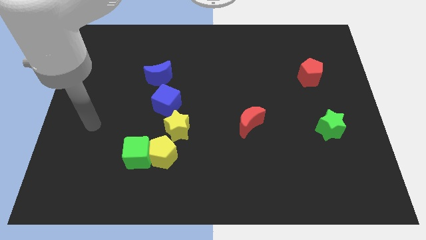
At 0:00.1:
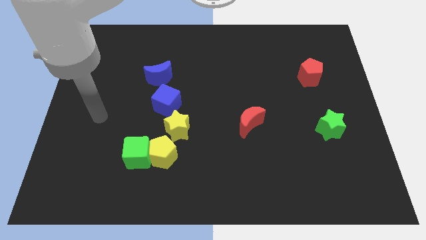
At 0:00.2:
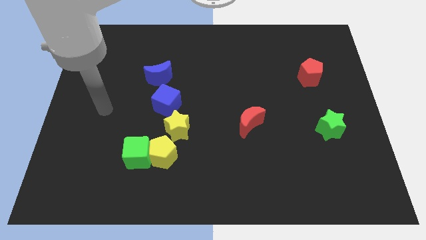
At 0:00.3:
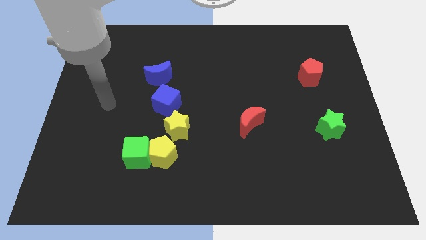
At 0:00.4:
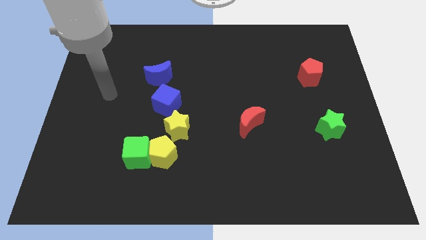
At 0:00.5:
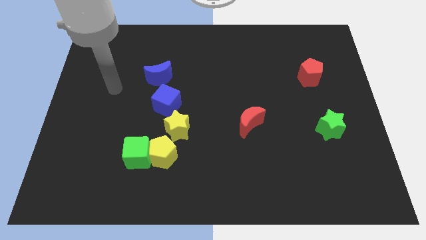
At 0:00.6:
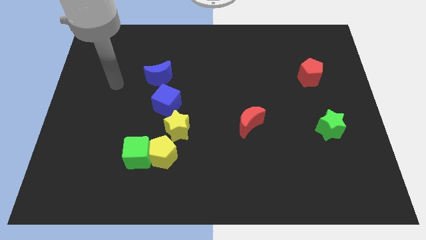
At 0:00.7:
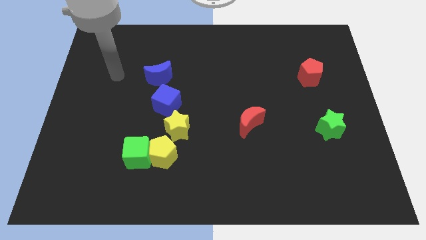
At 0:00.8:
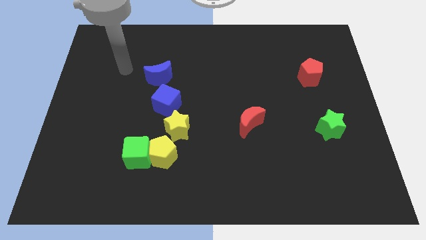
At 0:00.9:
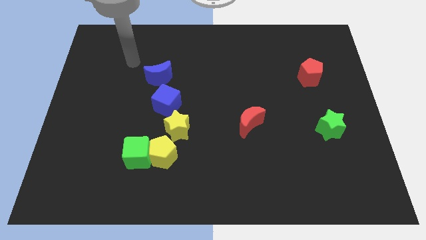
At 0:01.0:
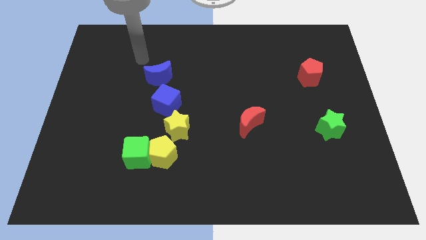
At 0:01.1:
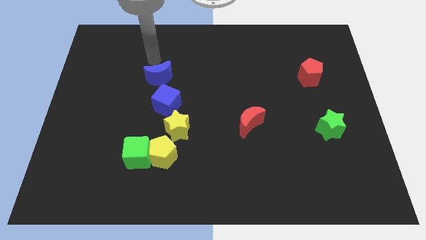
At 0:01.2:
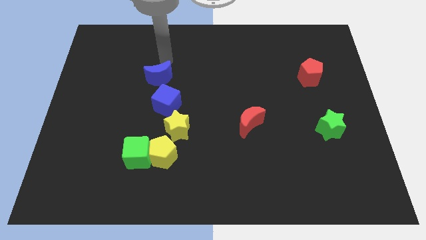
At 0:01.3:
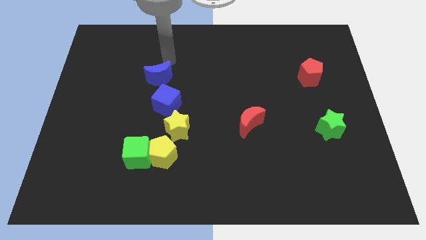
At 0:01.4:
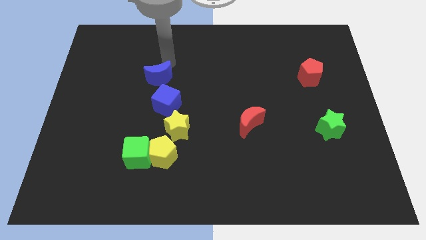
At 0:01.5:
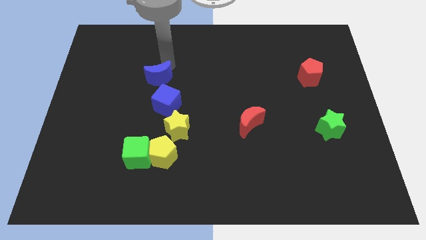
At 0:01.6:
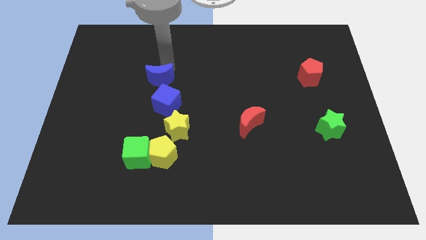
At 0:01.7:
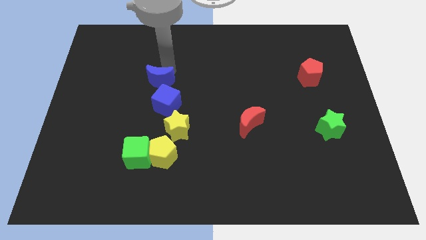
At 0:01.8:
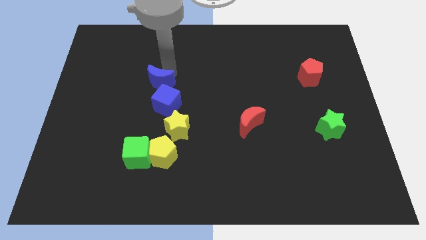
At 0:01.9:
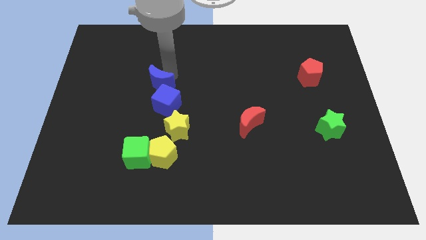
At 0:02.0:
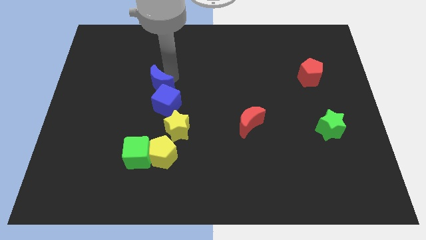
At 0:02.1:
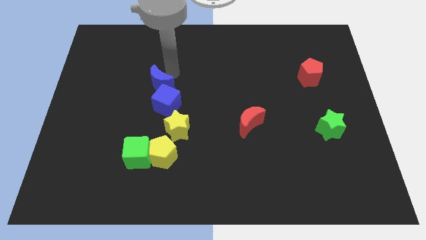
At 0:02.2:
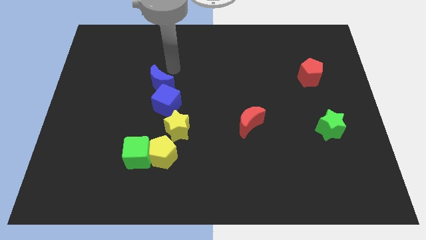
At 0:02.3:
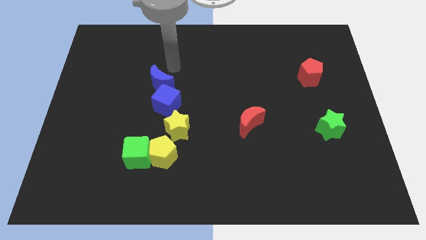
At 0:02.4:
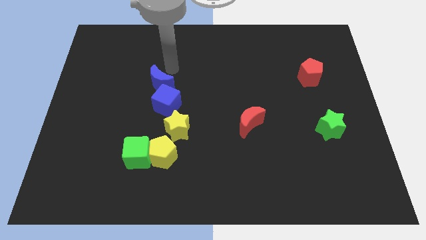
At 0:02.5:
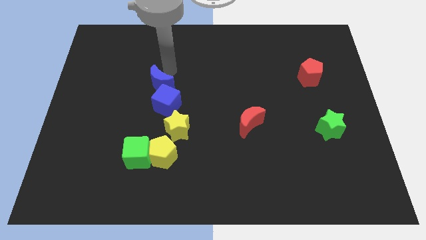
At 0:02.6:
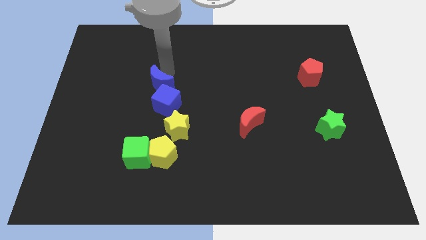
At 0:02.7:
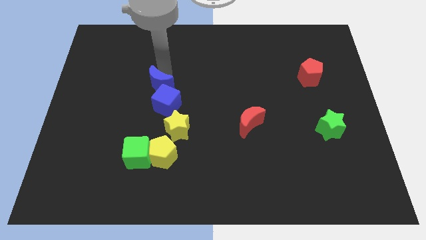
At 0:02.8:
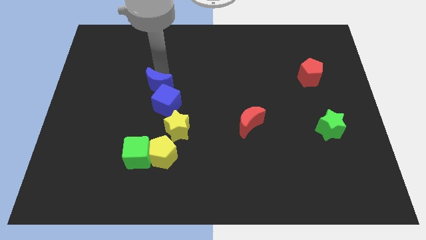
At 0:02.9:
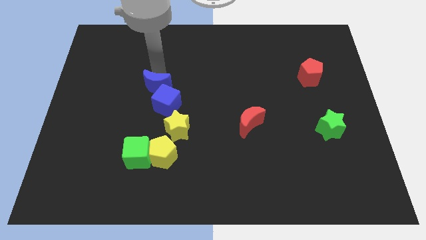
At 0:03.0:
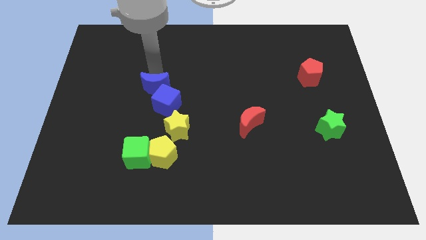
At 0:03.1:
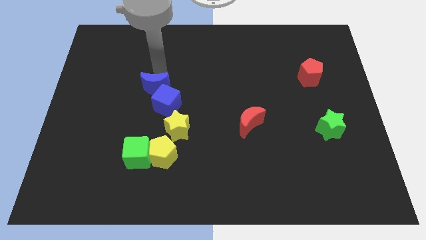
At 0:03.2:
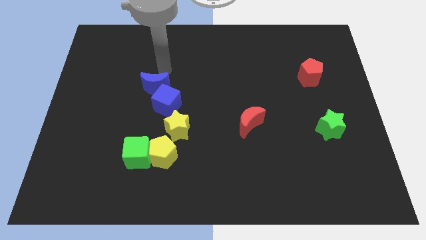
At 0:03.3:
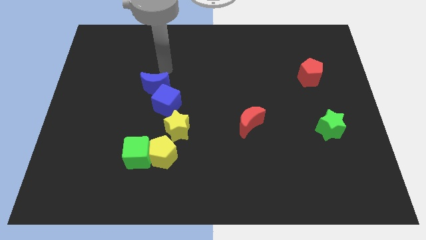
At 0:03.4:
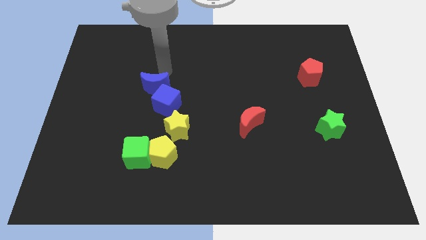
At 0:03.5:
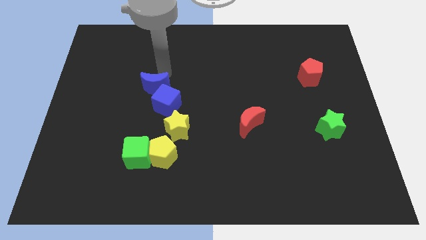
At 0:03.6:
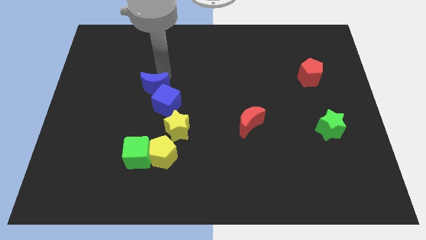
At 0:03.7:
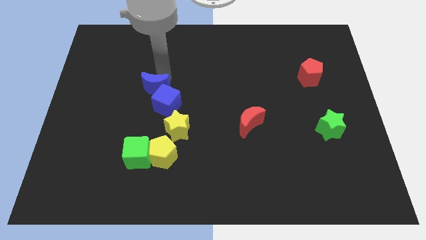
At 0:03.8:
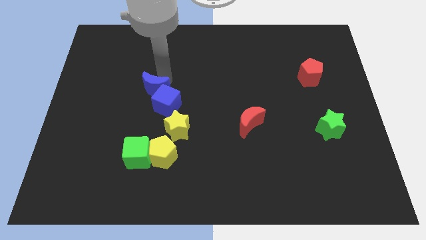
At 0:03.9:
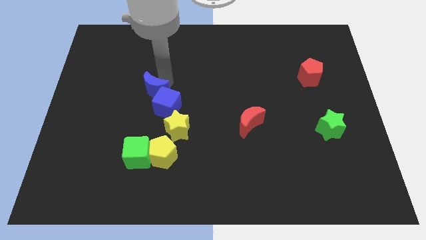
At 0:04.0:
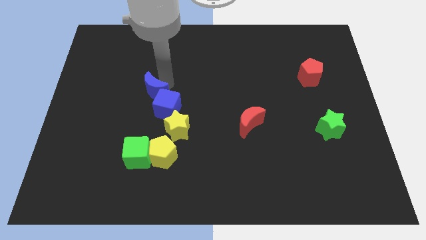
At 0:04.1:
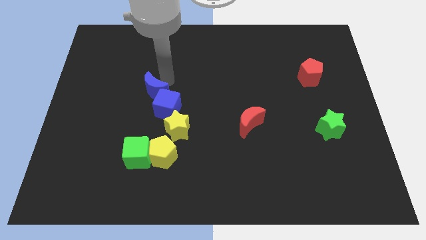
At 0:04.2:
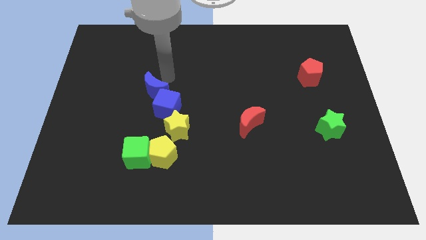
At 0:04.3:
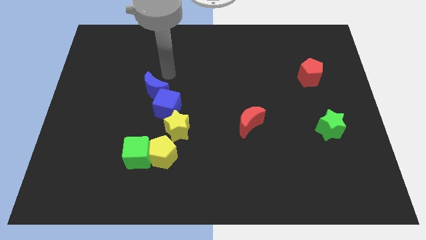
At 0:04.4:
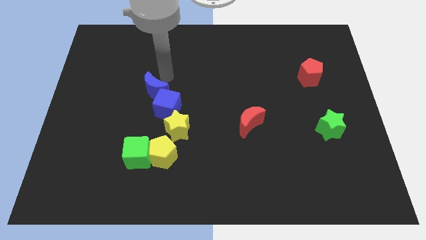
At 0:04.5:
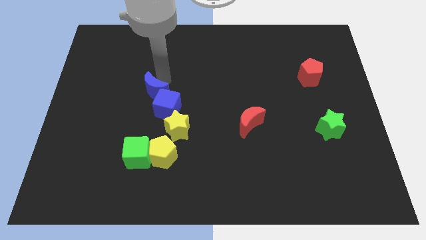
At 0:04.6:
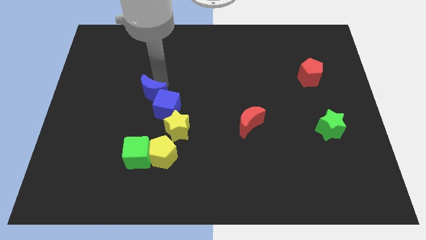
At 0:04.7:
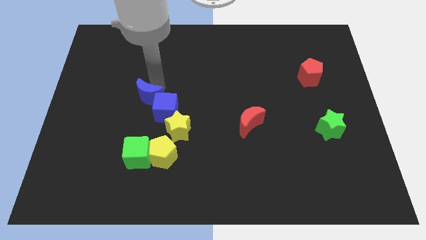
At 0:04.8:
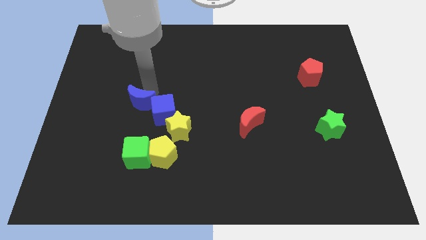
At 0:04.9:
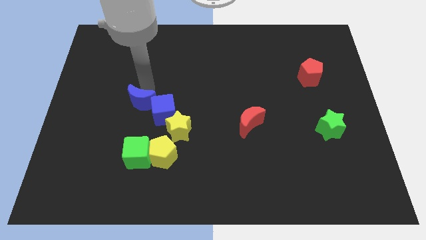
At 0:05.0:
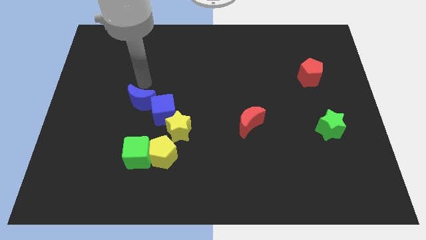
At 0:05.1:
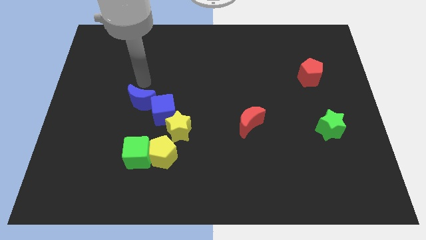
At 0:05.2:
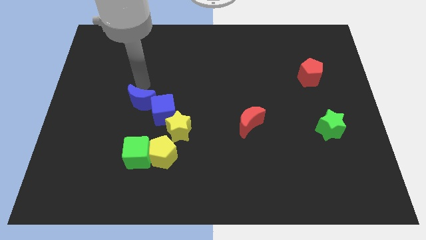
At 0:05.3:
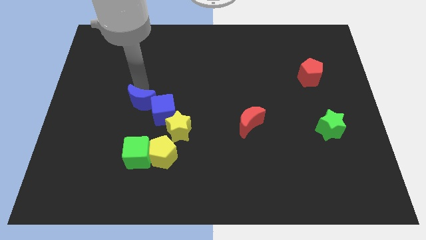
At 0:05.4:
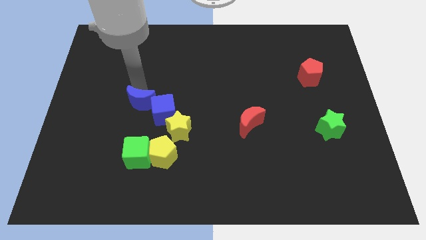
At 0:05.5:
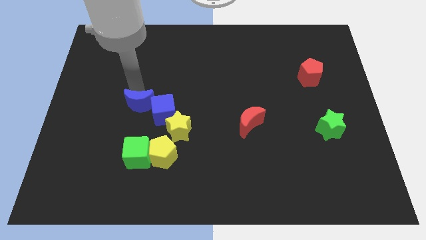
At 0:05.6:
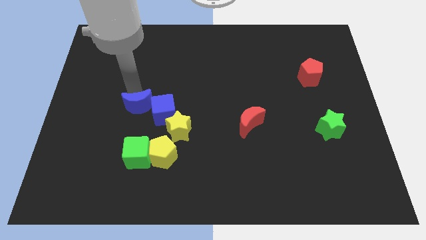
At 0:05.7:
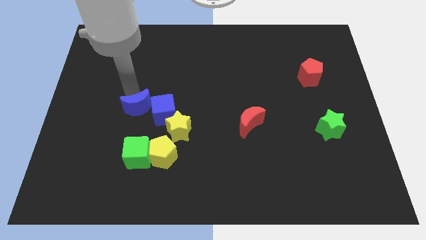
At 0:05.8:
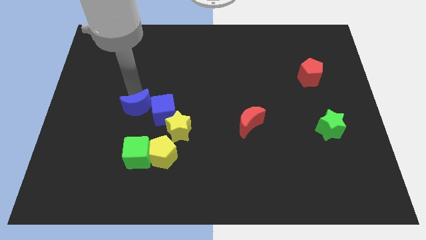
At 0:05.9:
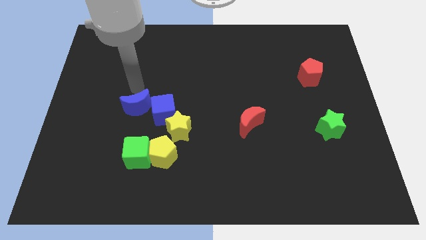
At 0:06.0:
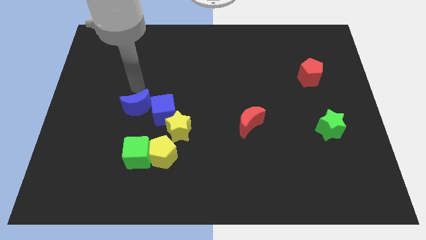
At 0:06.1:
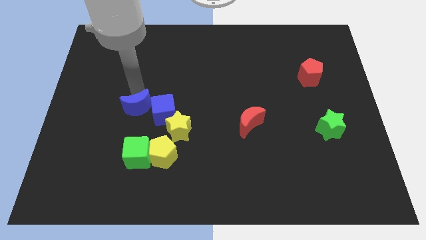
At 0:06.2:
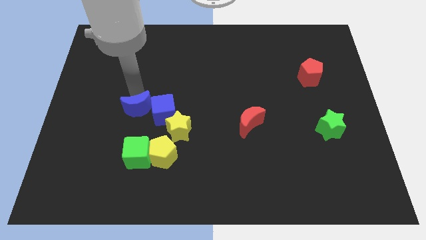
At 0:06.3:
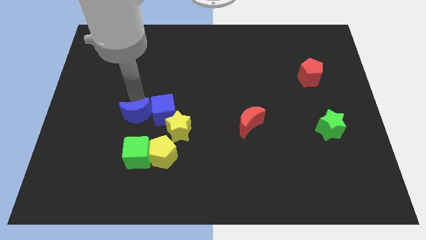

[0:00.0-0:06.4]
move the blue moon to the bottom left side of the blue cube
